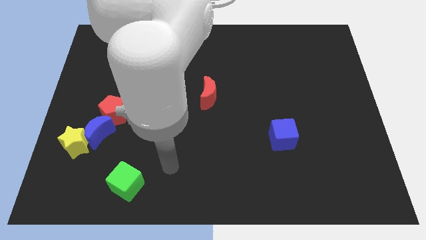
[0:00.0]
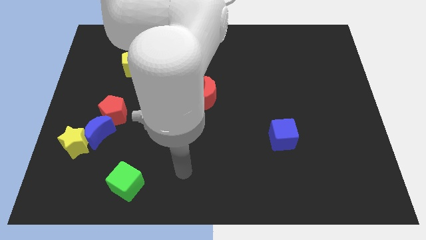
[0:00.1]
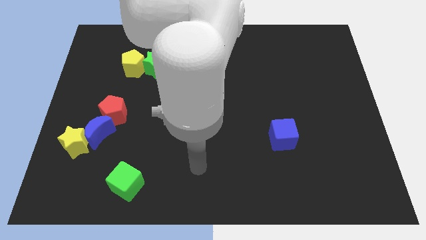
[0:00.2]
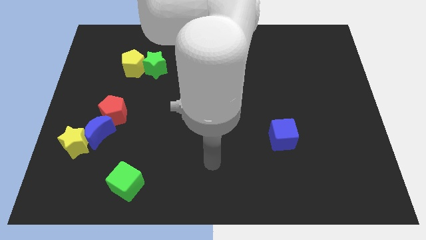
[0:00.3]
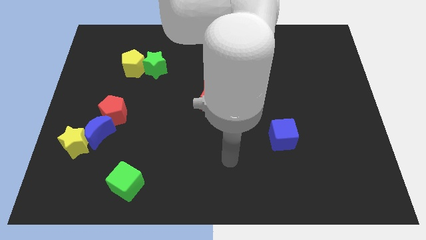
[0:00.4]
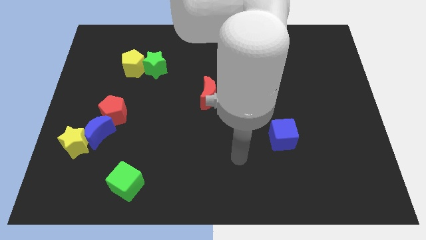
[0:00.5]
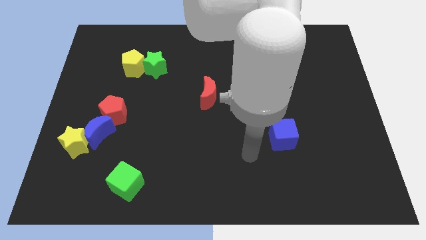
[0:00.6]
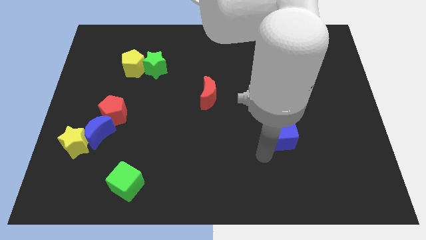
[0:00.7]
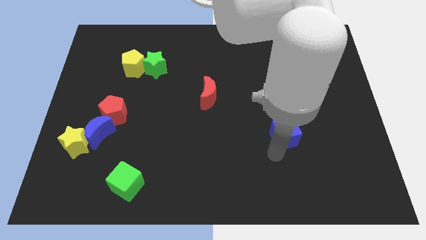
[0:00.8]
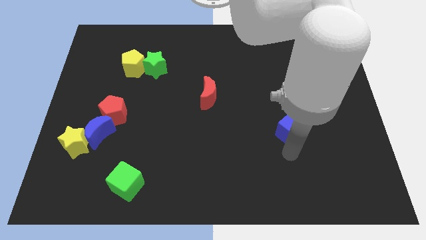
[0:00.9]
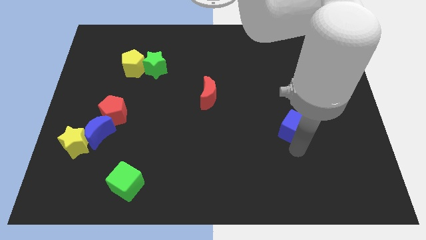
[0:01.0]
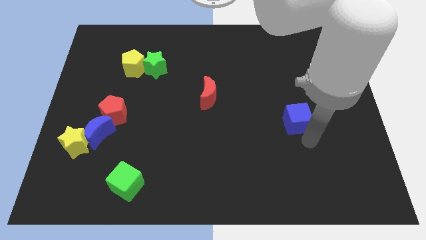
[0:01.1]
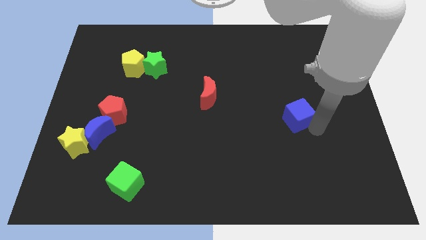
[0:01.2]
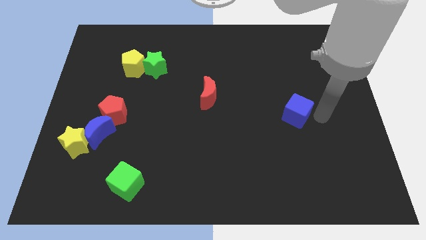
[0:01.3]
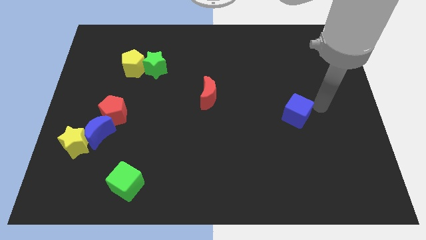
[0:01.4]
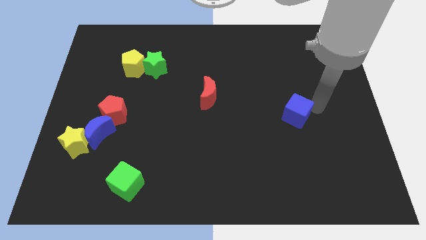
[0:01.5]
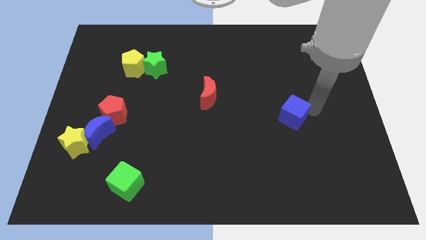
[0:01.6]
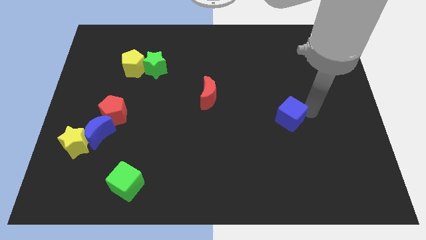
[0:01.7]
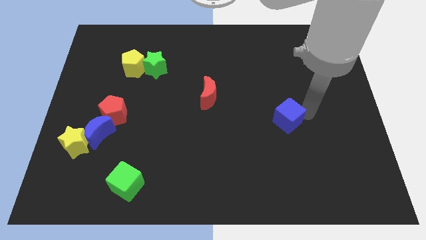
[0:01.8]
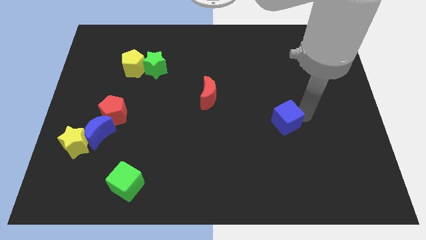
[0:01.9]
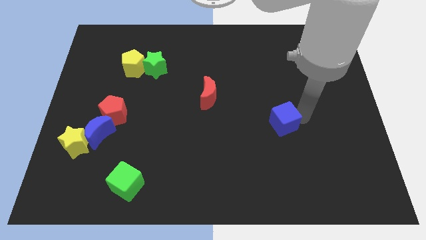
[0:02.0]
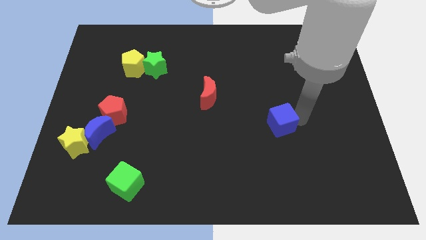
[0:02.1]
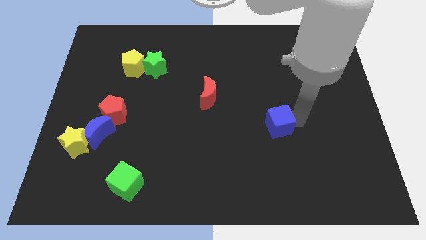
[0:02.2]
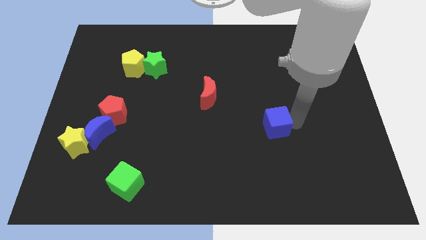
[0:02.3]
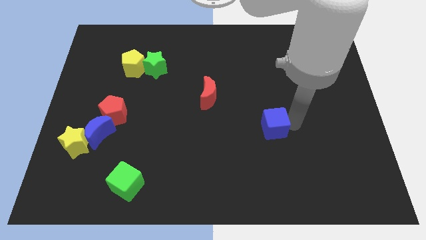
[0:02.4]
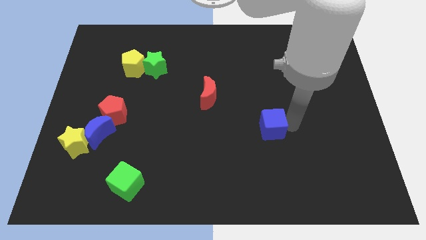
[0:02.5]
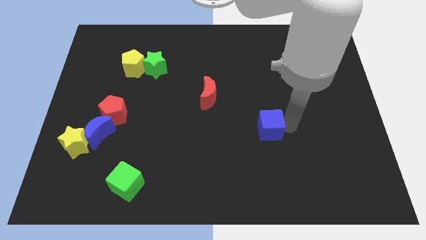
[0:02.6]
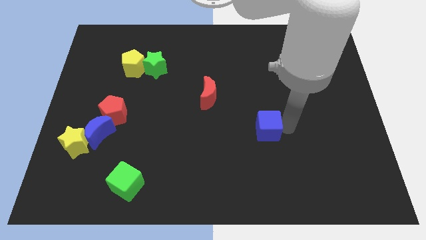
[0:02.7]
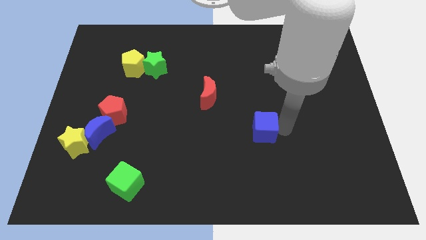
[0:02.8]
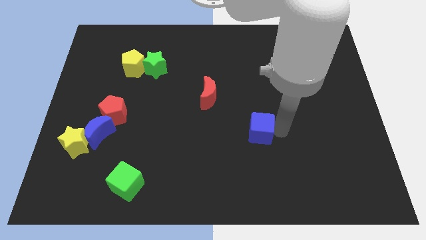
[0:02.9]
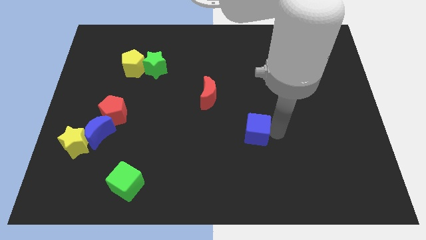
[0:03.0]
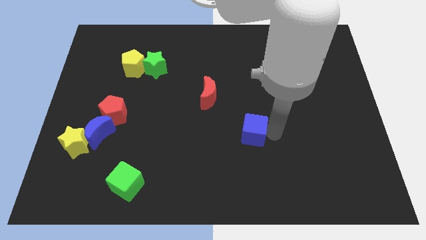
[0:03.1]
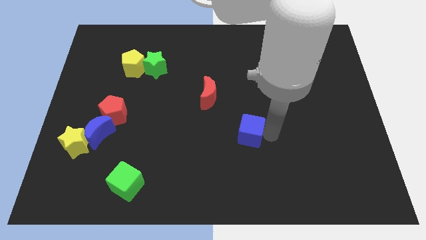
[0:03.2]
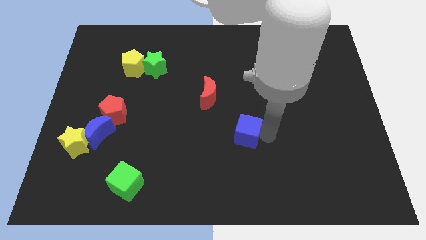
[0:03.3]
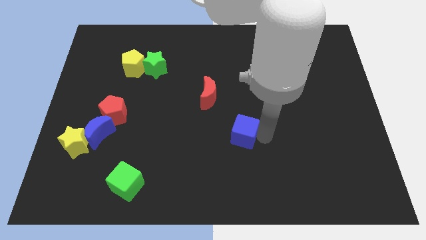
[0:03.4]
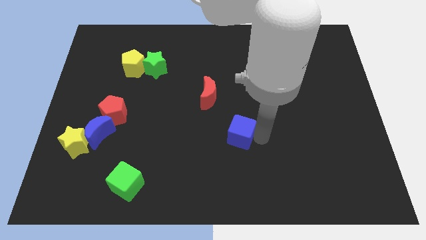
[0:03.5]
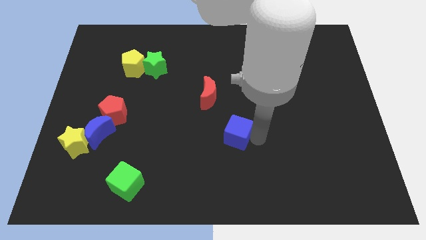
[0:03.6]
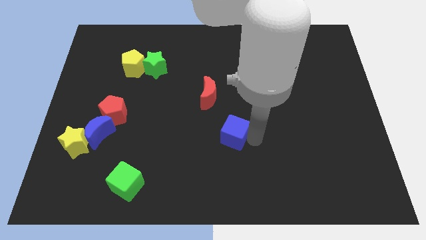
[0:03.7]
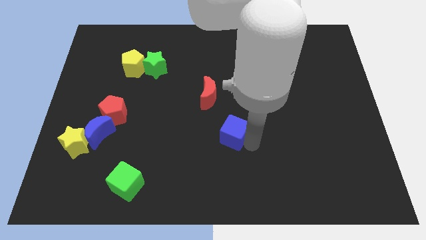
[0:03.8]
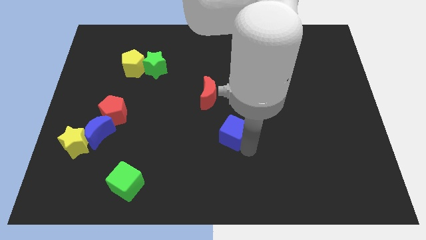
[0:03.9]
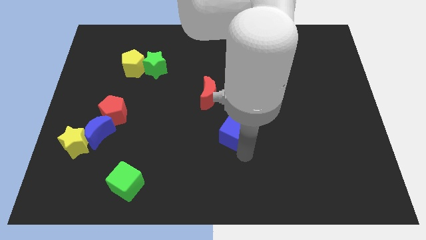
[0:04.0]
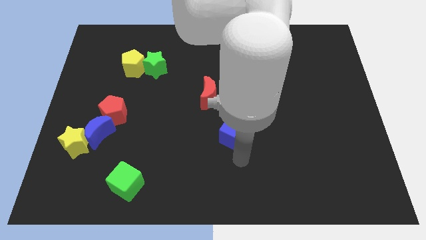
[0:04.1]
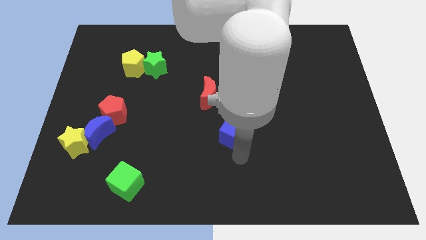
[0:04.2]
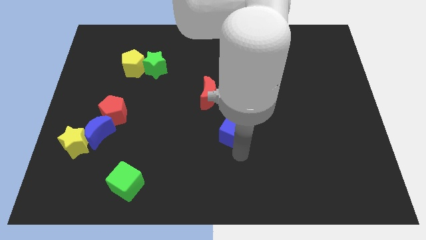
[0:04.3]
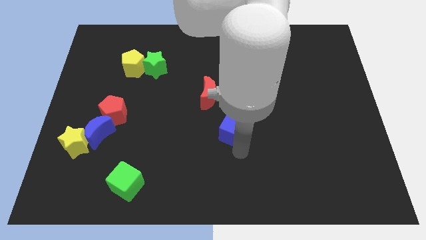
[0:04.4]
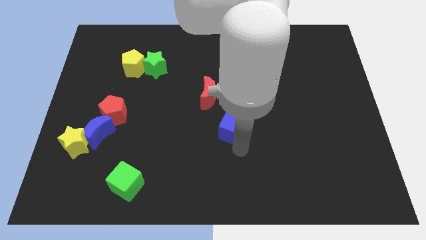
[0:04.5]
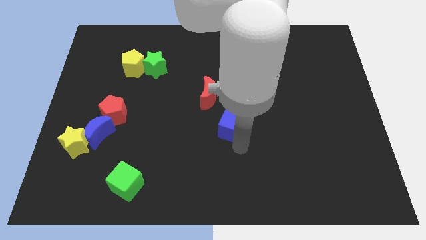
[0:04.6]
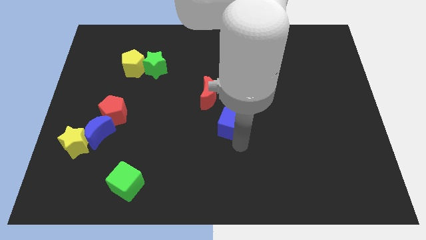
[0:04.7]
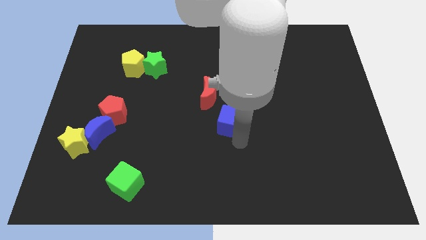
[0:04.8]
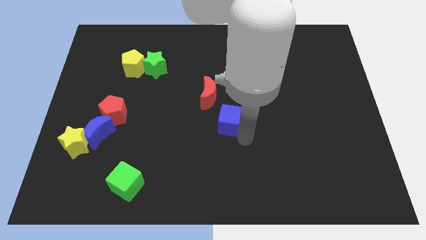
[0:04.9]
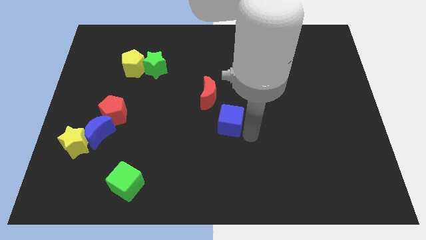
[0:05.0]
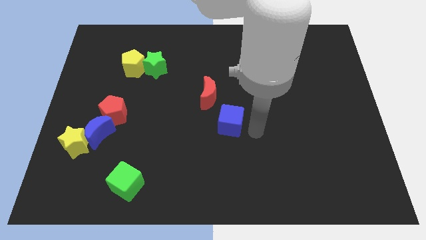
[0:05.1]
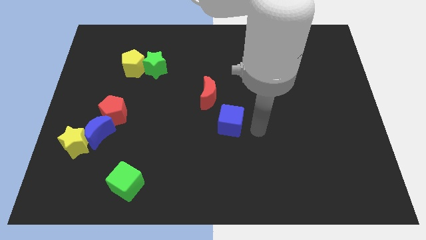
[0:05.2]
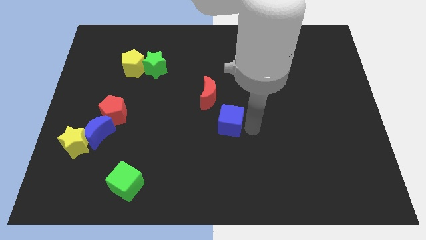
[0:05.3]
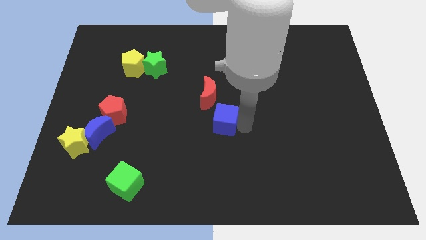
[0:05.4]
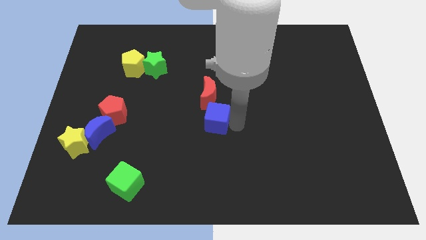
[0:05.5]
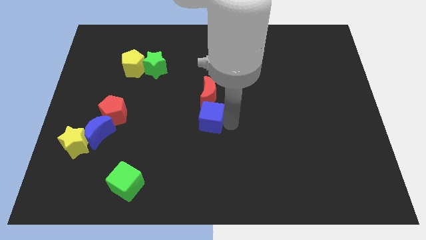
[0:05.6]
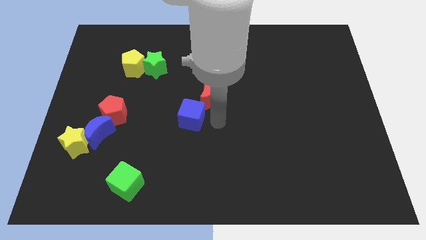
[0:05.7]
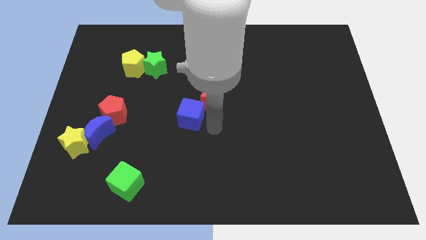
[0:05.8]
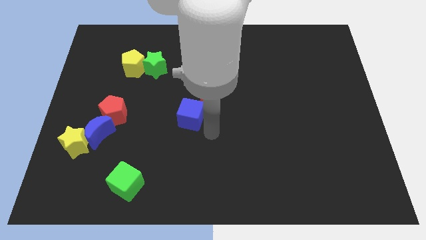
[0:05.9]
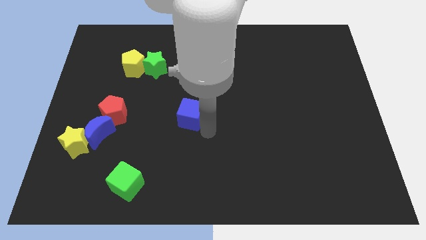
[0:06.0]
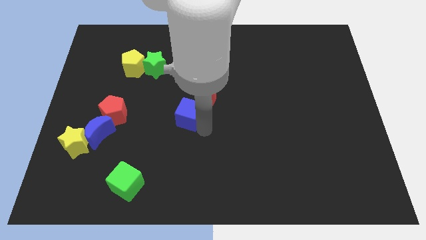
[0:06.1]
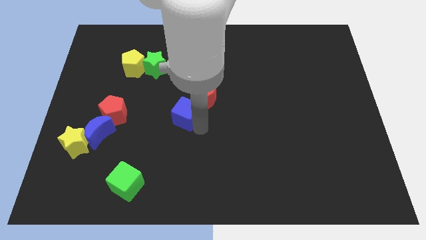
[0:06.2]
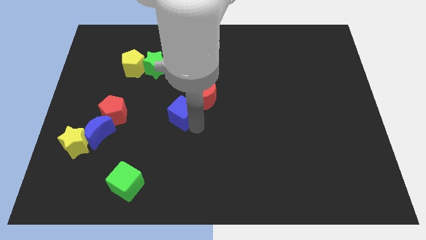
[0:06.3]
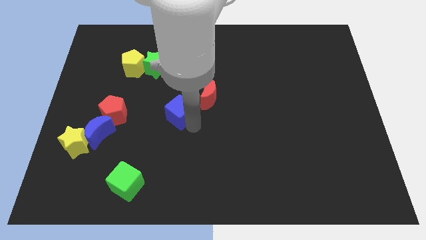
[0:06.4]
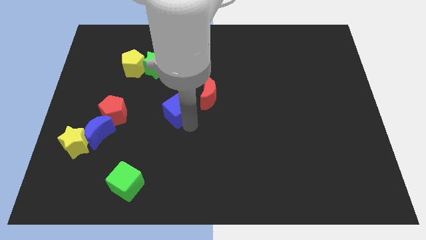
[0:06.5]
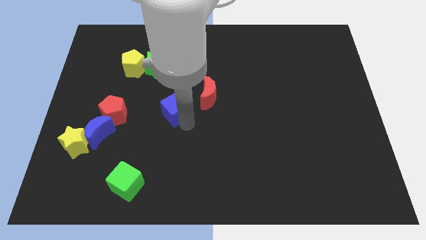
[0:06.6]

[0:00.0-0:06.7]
put the blue cube left of the red moon

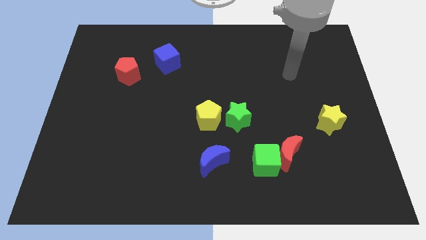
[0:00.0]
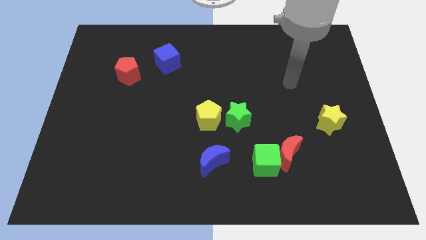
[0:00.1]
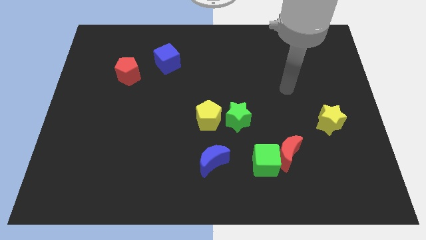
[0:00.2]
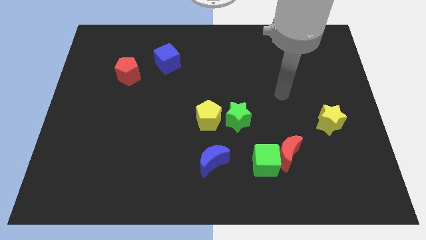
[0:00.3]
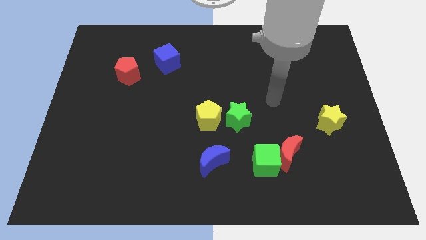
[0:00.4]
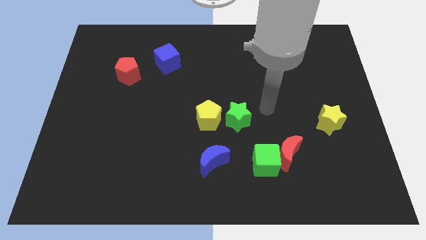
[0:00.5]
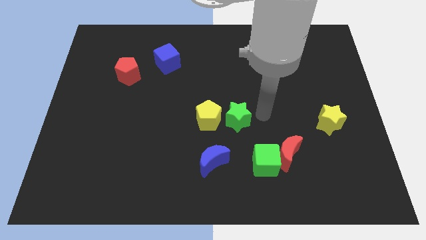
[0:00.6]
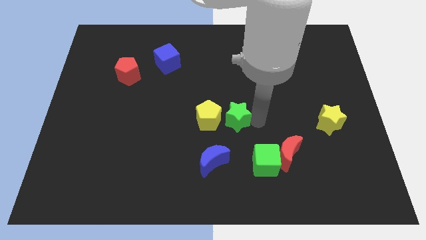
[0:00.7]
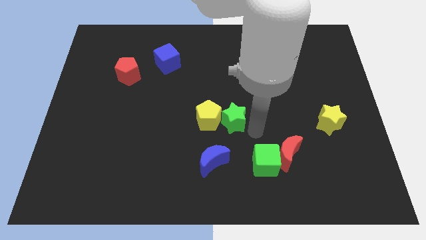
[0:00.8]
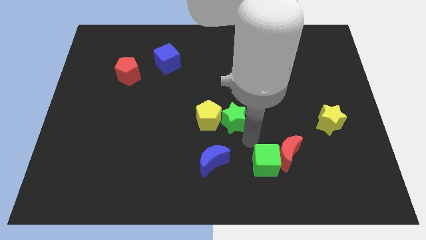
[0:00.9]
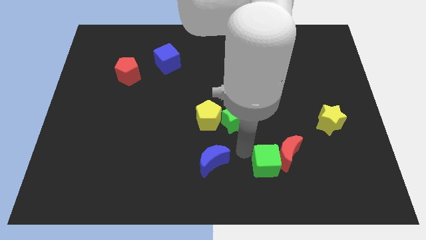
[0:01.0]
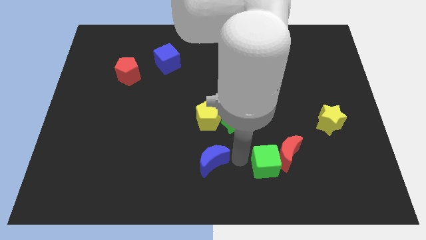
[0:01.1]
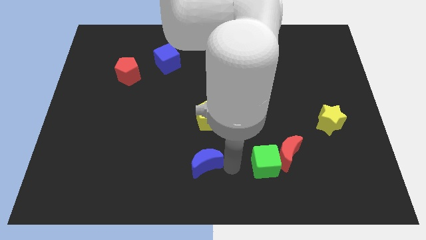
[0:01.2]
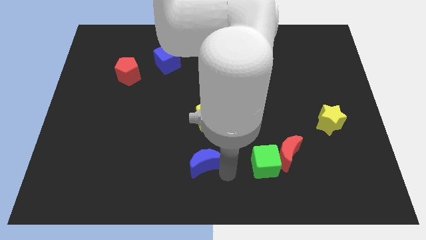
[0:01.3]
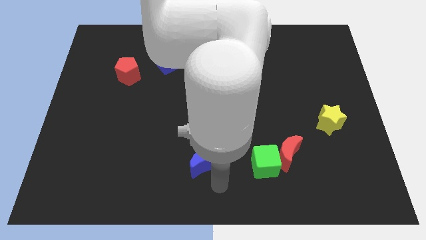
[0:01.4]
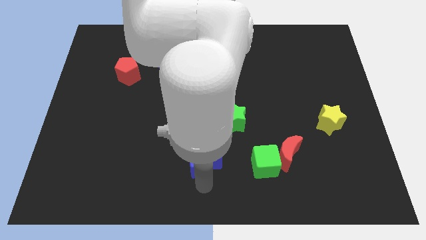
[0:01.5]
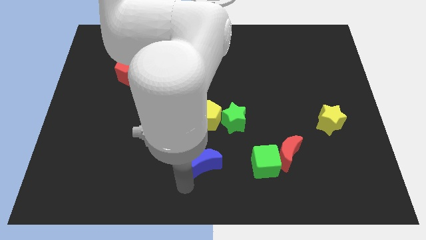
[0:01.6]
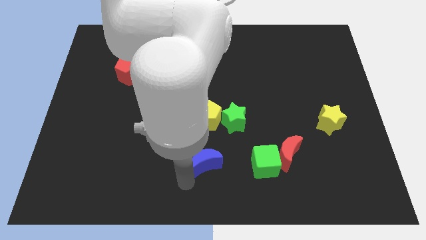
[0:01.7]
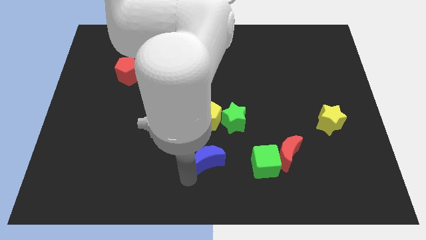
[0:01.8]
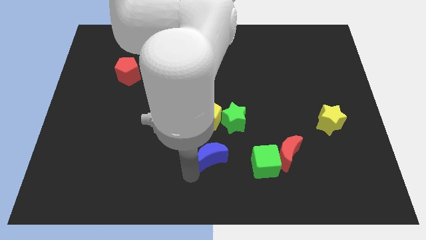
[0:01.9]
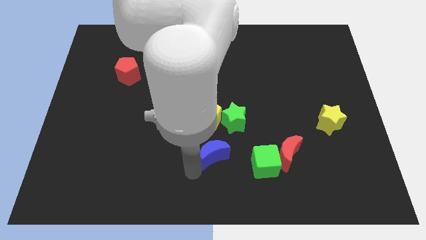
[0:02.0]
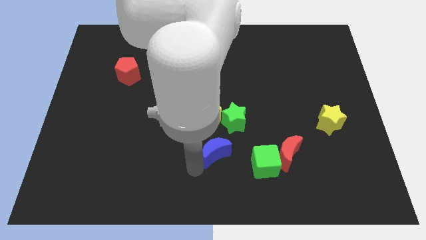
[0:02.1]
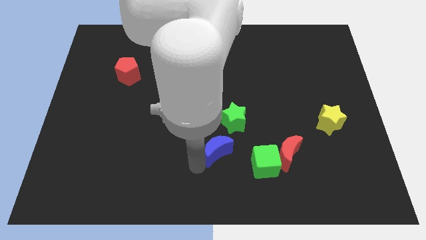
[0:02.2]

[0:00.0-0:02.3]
move the blue moon to the bottom right of the yellow pentagon
